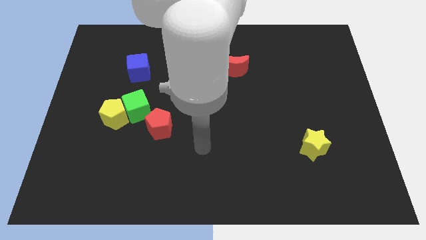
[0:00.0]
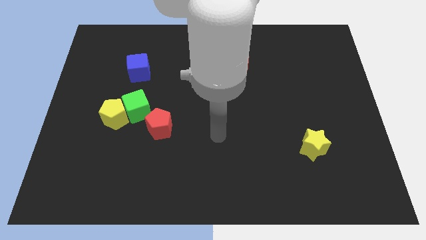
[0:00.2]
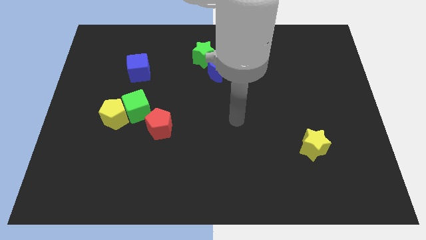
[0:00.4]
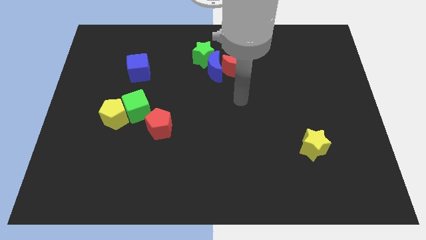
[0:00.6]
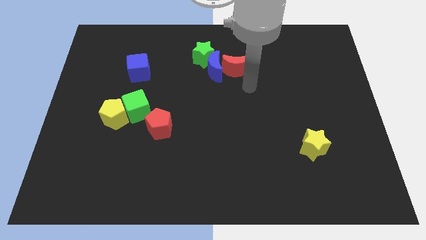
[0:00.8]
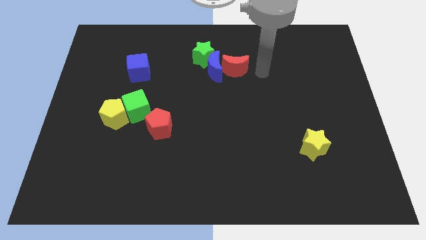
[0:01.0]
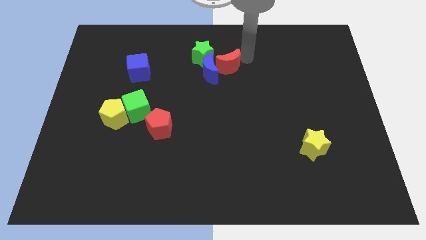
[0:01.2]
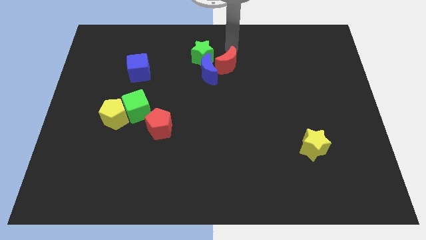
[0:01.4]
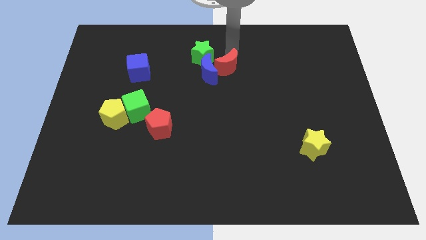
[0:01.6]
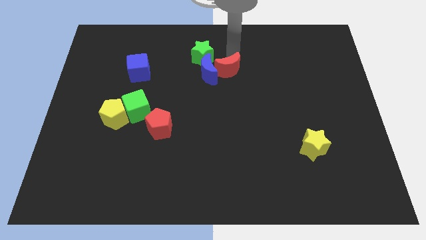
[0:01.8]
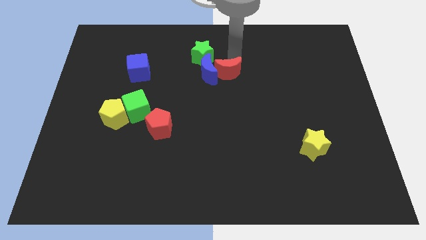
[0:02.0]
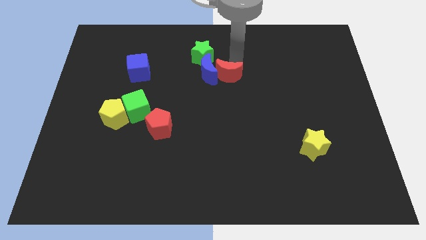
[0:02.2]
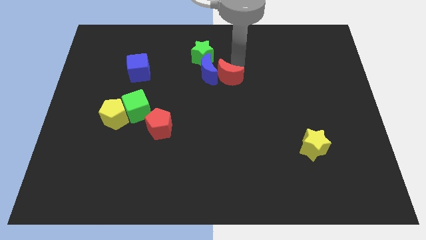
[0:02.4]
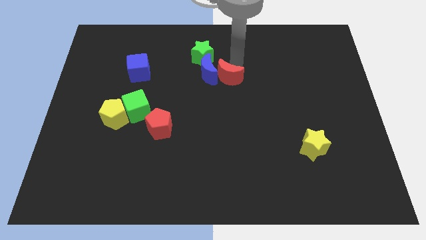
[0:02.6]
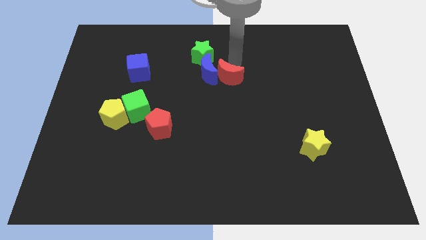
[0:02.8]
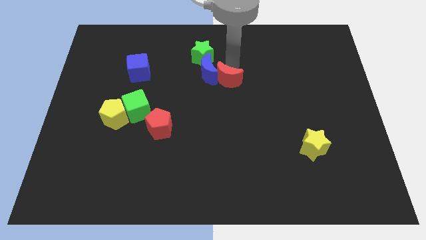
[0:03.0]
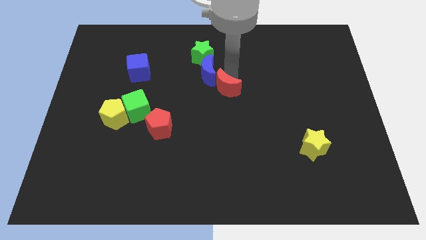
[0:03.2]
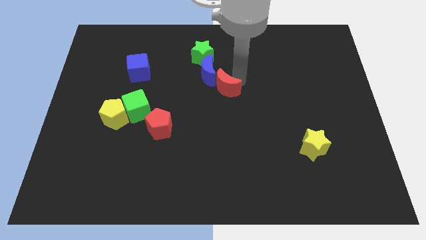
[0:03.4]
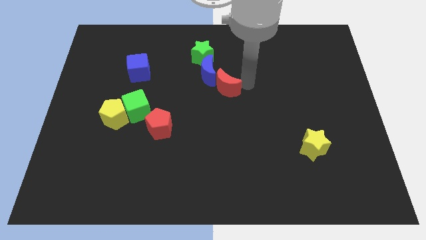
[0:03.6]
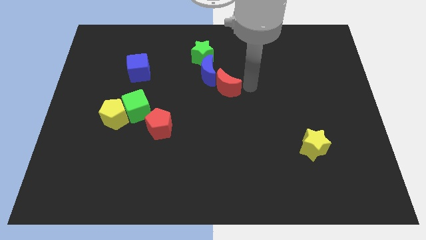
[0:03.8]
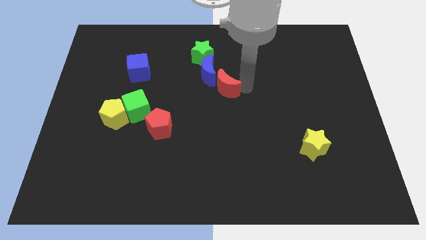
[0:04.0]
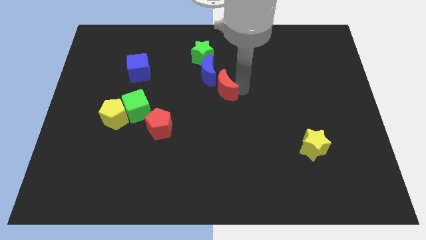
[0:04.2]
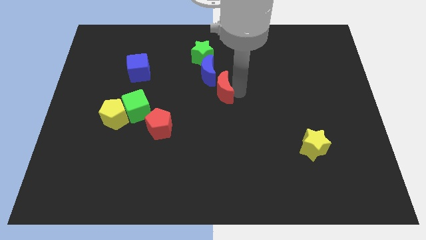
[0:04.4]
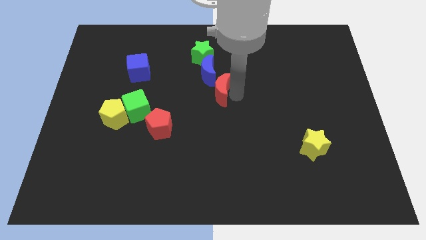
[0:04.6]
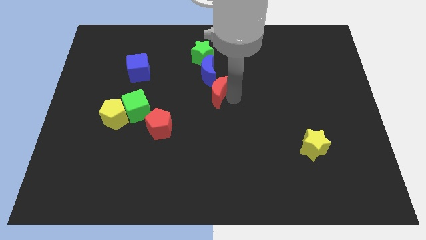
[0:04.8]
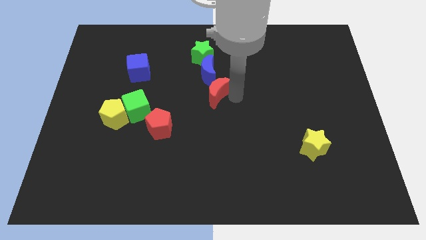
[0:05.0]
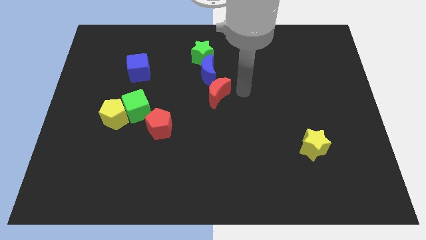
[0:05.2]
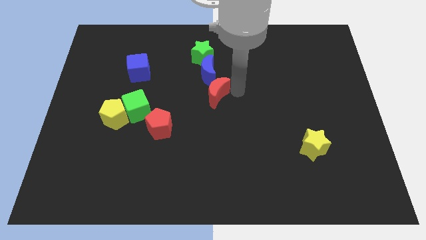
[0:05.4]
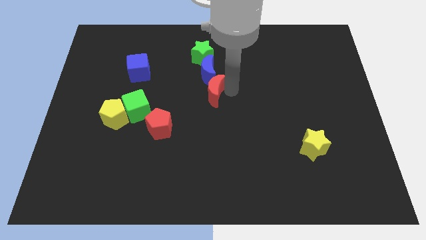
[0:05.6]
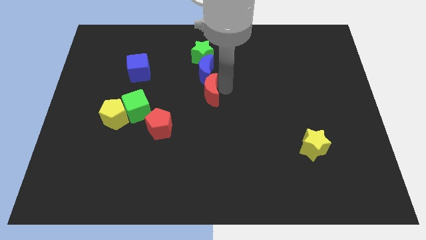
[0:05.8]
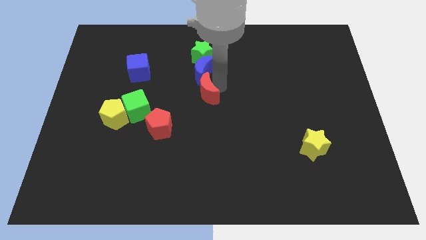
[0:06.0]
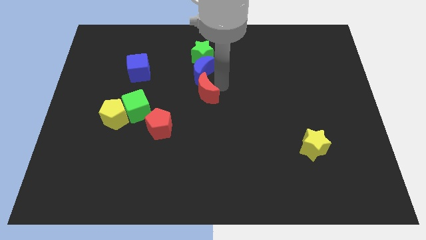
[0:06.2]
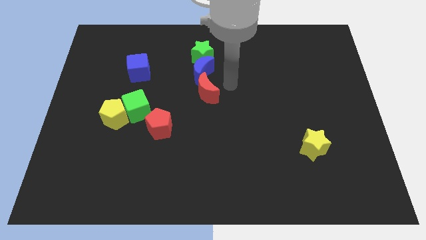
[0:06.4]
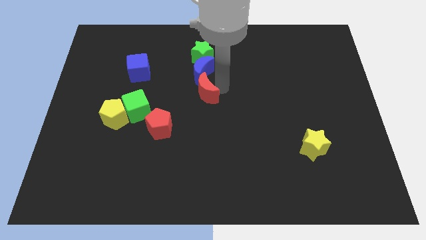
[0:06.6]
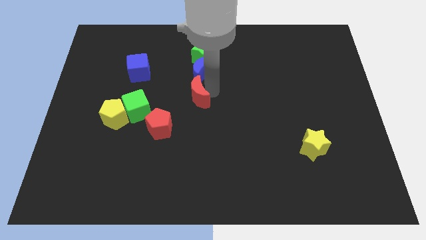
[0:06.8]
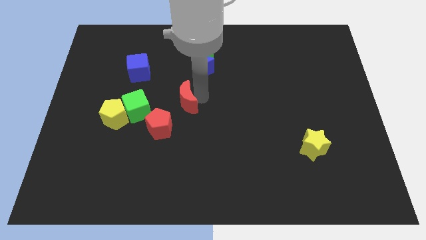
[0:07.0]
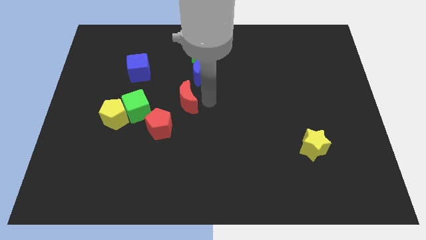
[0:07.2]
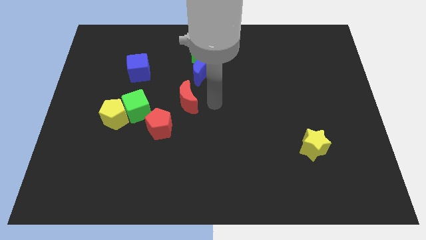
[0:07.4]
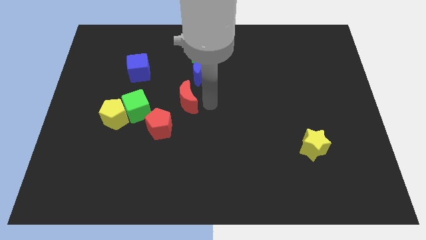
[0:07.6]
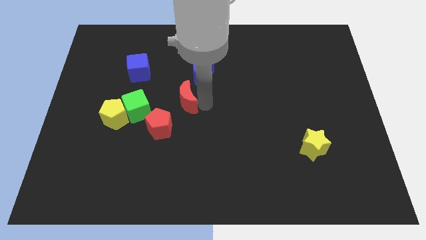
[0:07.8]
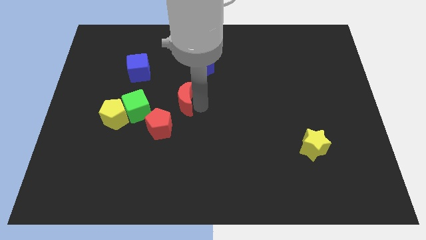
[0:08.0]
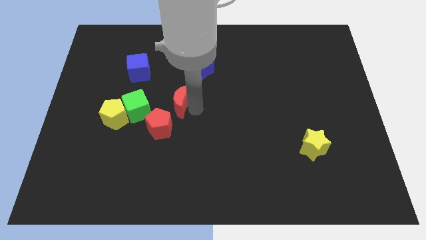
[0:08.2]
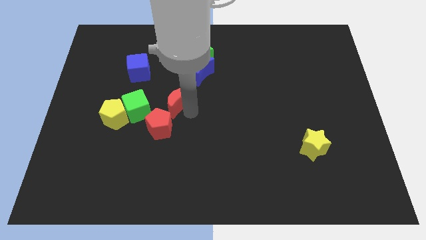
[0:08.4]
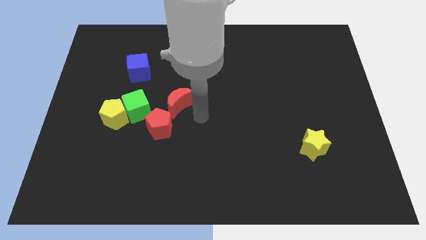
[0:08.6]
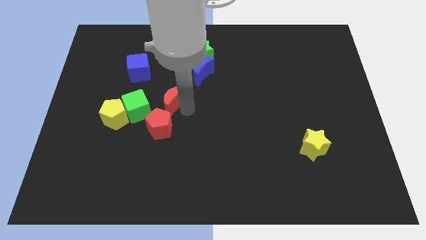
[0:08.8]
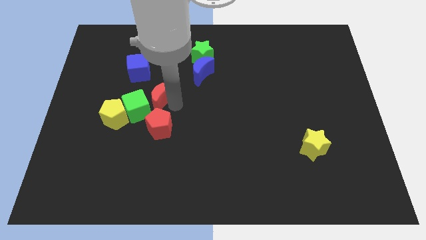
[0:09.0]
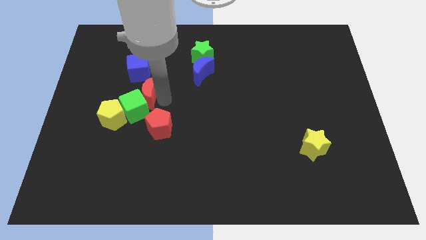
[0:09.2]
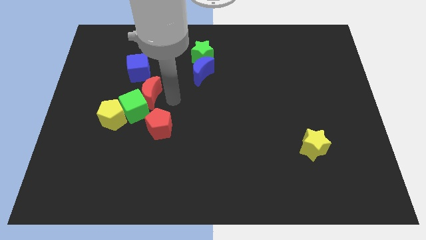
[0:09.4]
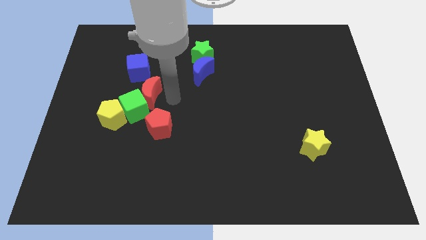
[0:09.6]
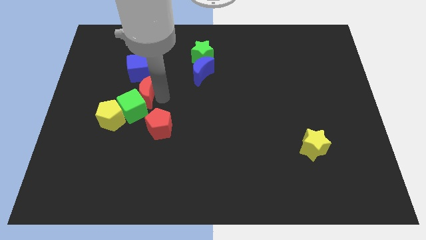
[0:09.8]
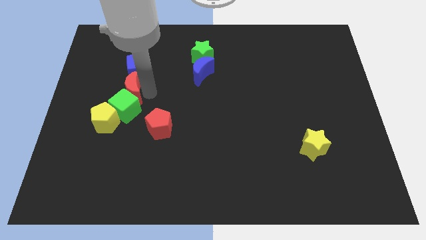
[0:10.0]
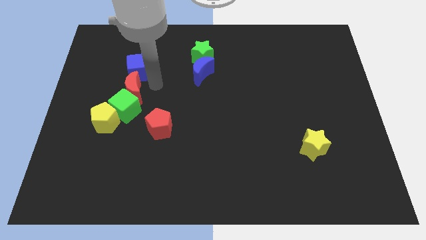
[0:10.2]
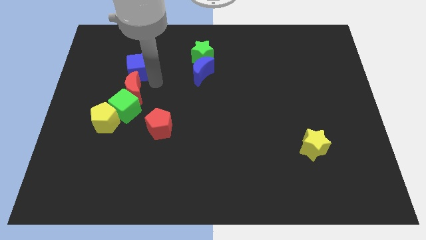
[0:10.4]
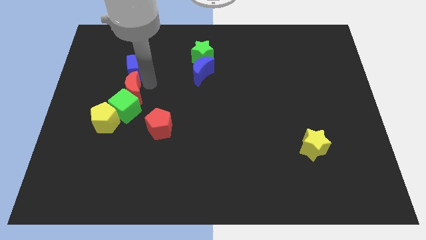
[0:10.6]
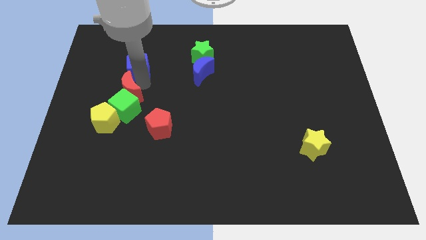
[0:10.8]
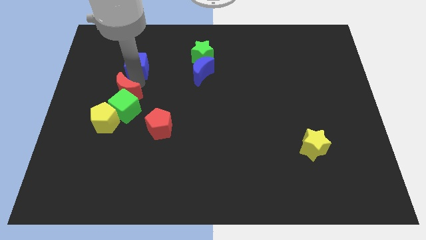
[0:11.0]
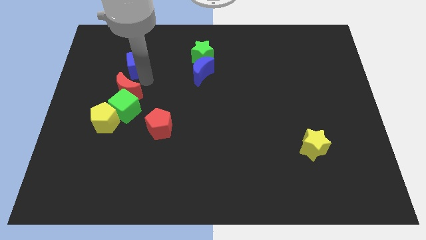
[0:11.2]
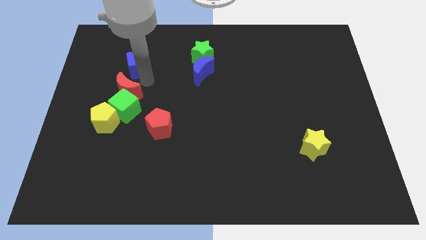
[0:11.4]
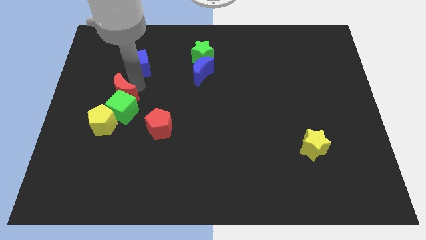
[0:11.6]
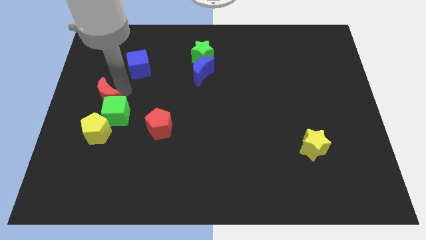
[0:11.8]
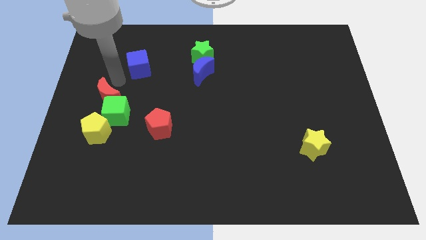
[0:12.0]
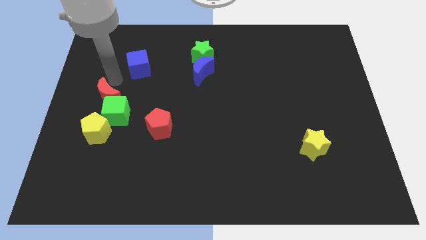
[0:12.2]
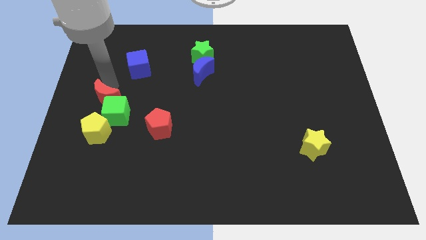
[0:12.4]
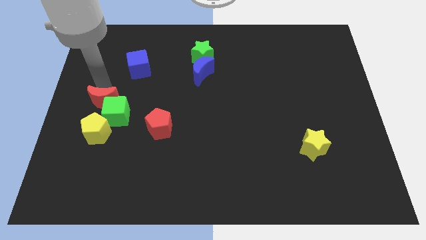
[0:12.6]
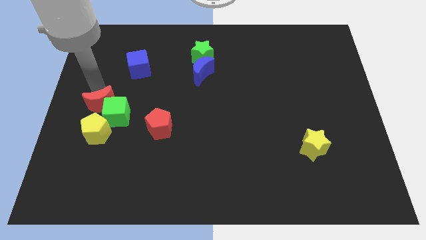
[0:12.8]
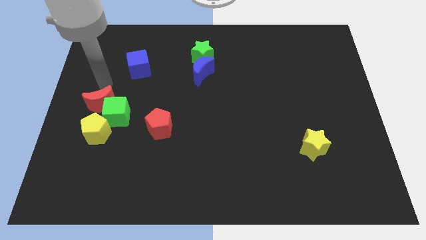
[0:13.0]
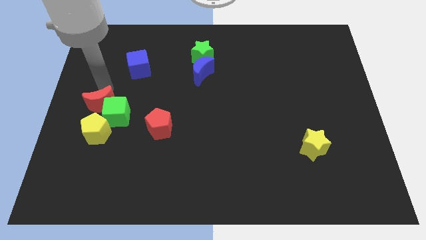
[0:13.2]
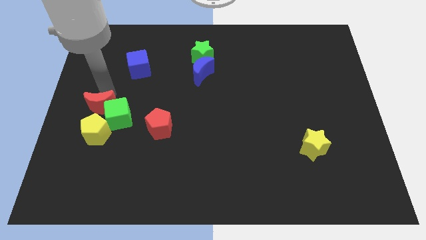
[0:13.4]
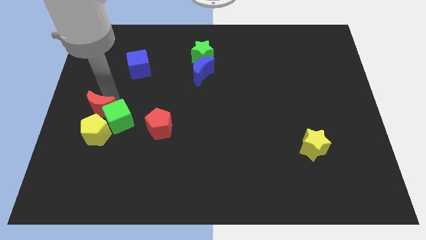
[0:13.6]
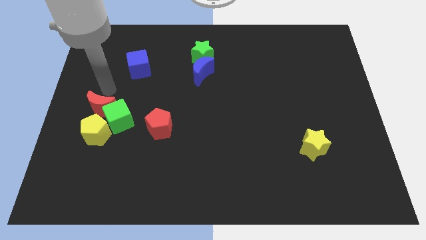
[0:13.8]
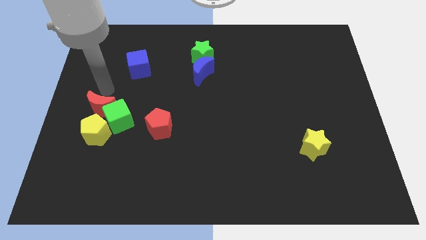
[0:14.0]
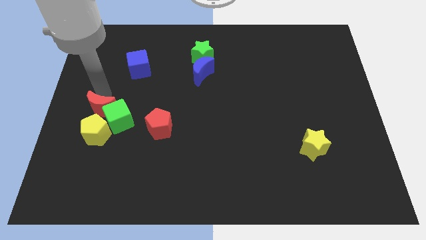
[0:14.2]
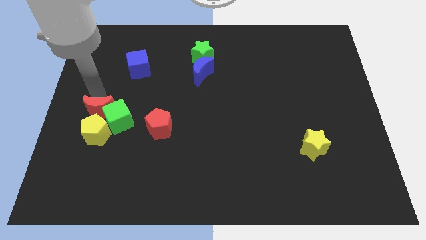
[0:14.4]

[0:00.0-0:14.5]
put the red moon next to the yellow pentagon
